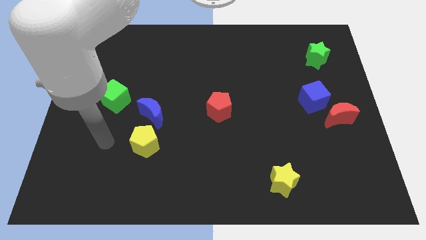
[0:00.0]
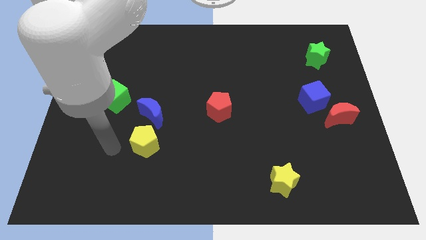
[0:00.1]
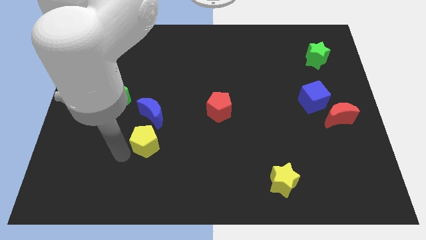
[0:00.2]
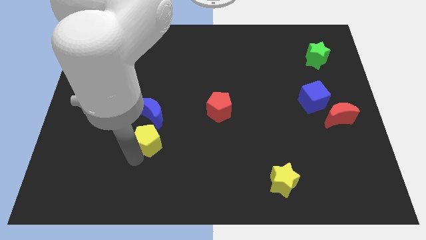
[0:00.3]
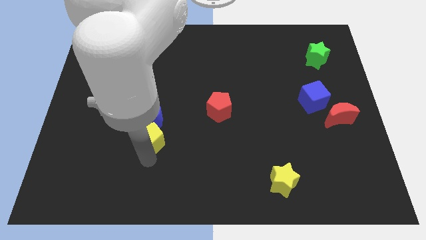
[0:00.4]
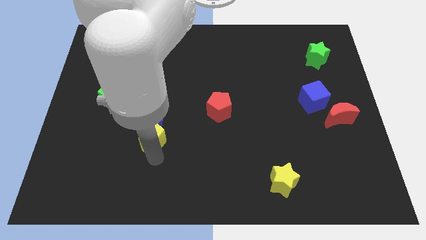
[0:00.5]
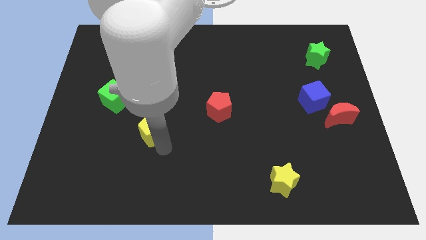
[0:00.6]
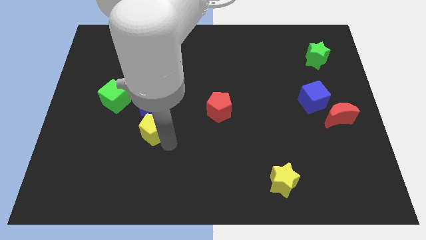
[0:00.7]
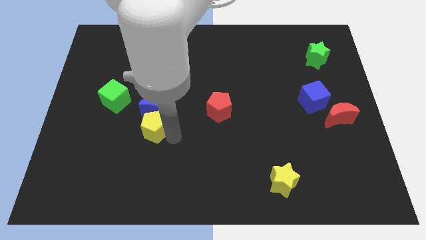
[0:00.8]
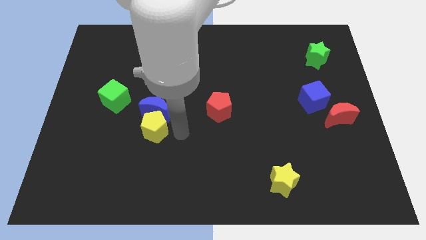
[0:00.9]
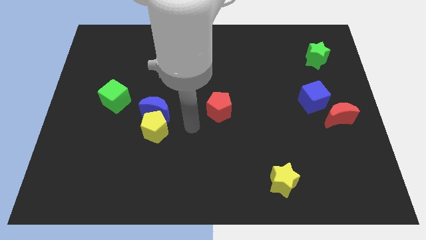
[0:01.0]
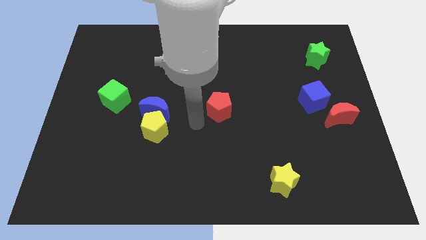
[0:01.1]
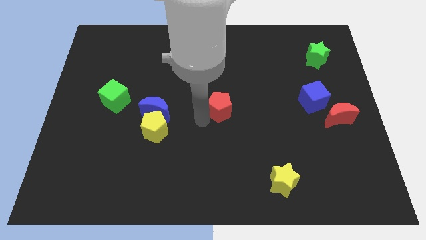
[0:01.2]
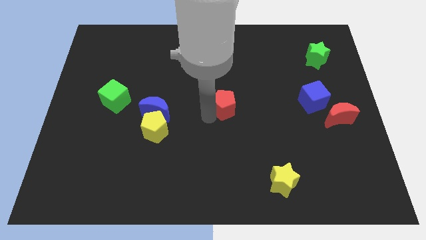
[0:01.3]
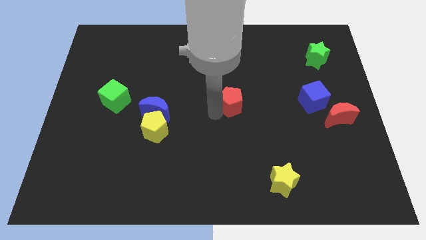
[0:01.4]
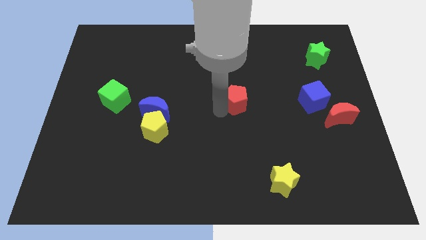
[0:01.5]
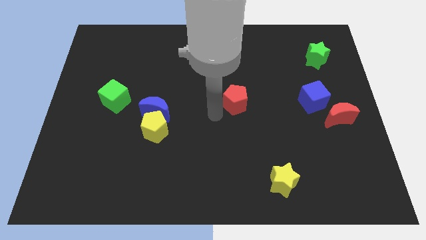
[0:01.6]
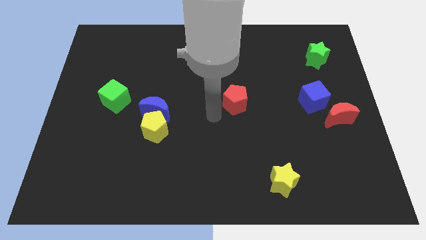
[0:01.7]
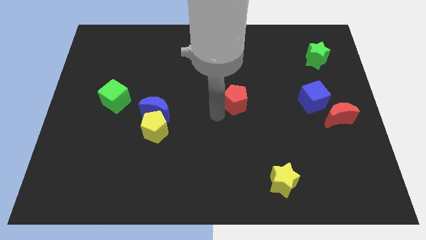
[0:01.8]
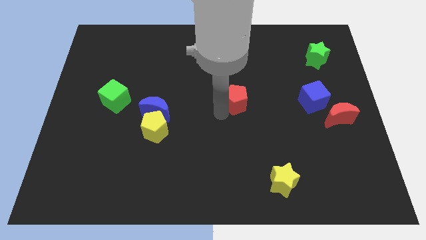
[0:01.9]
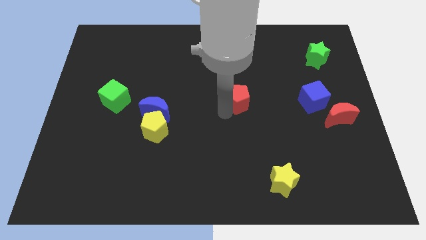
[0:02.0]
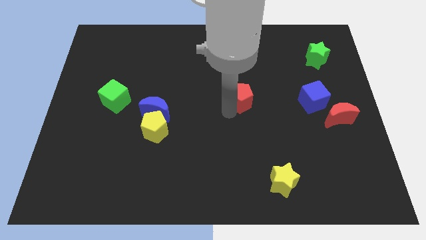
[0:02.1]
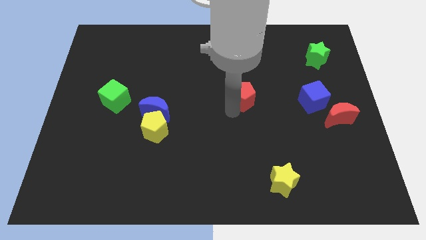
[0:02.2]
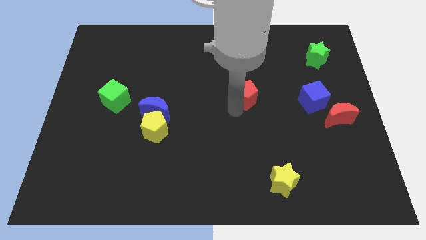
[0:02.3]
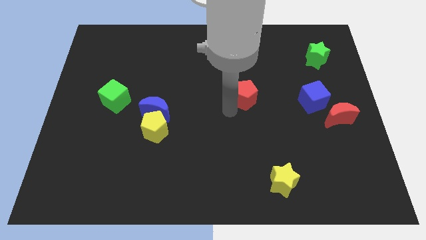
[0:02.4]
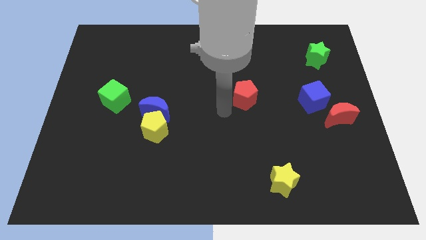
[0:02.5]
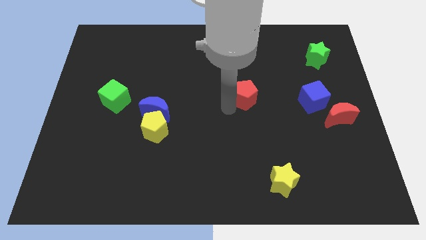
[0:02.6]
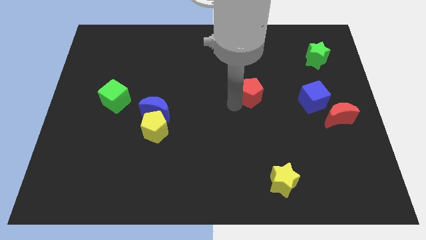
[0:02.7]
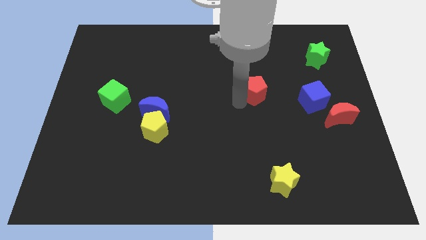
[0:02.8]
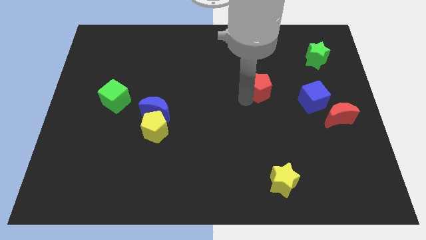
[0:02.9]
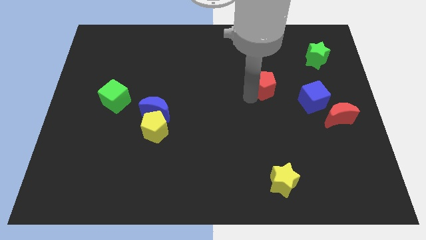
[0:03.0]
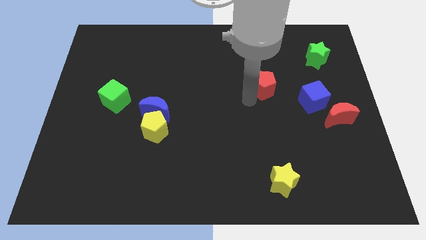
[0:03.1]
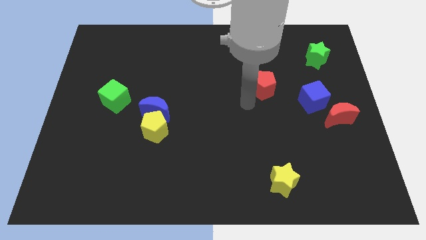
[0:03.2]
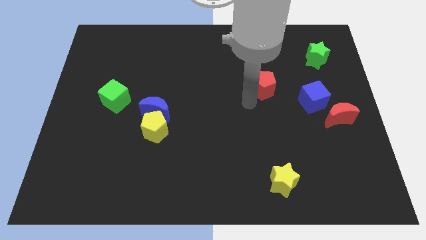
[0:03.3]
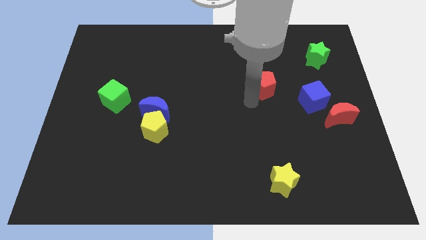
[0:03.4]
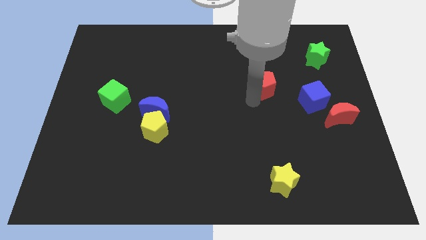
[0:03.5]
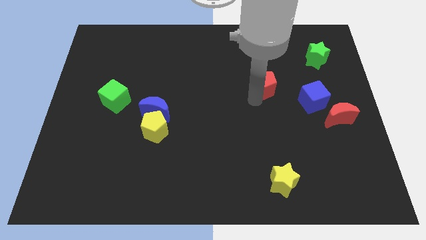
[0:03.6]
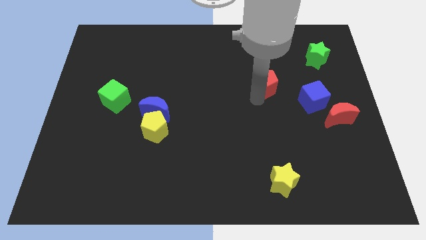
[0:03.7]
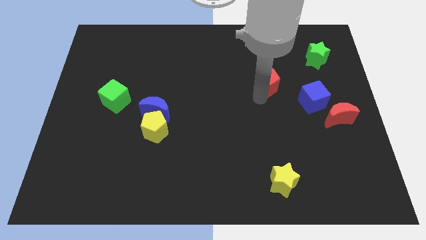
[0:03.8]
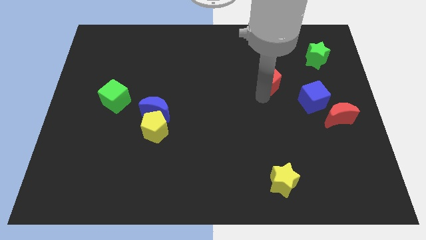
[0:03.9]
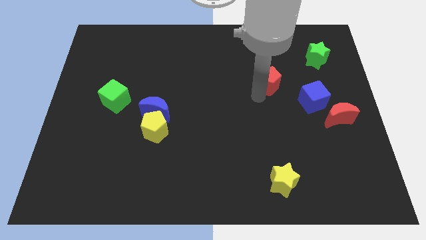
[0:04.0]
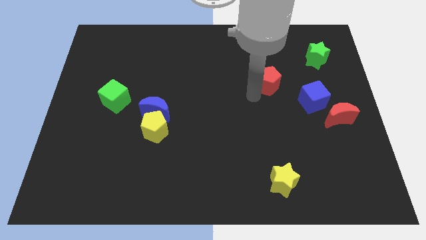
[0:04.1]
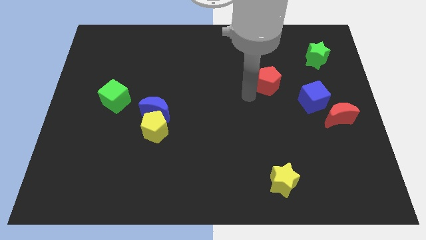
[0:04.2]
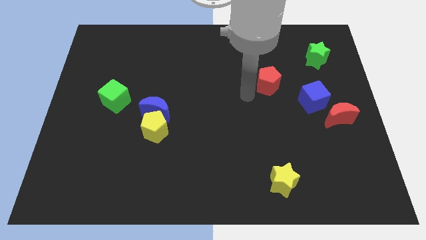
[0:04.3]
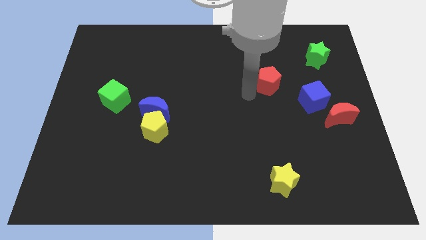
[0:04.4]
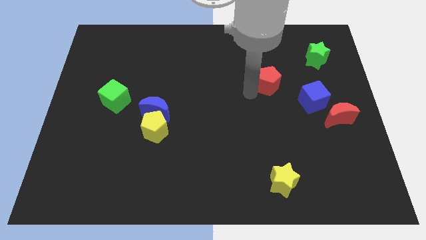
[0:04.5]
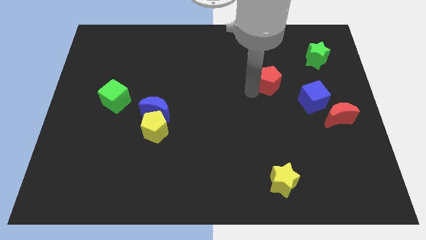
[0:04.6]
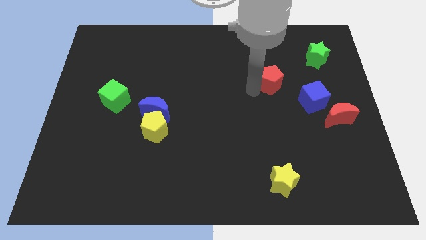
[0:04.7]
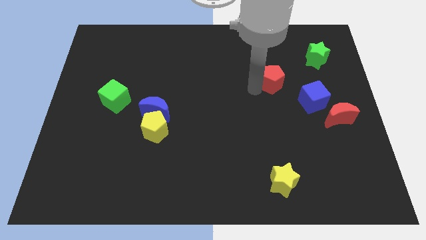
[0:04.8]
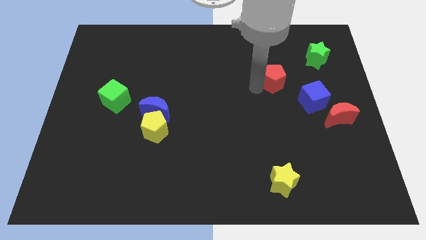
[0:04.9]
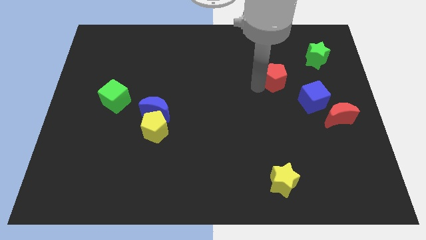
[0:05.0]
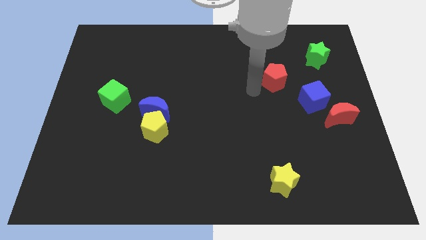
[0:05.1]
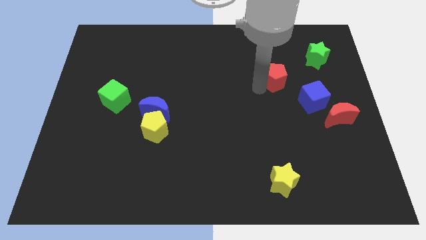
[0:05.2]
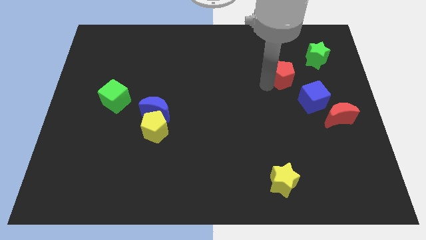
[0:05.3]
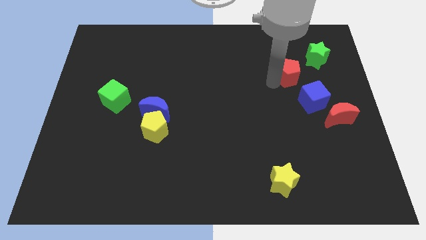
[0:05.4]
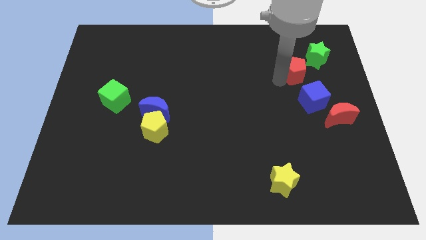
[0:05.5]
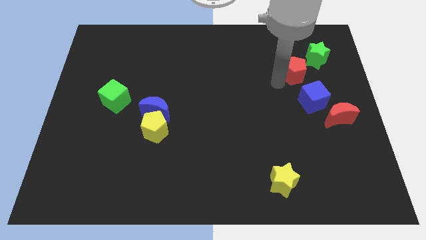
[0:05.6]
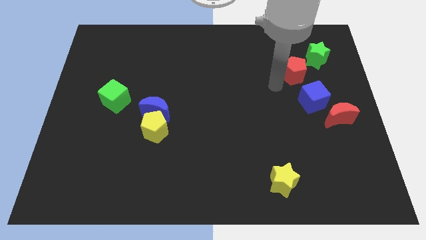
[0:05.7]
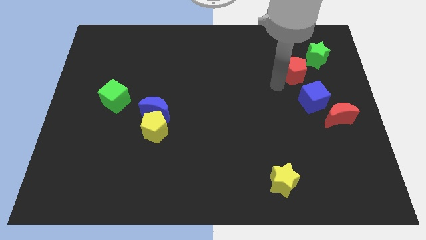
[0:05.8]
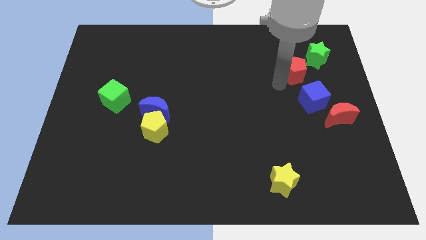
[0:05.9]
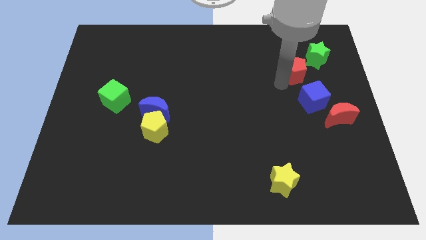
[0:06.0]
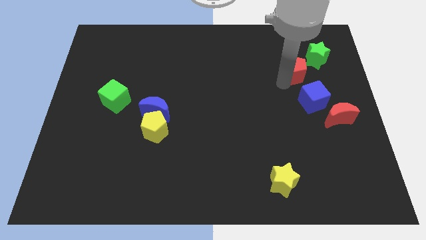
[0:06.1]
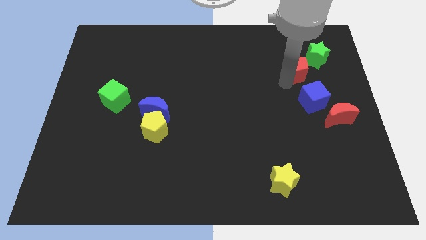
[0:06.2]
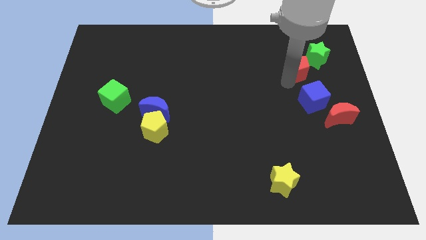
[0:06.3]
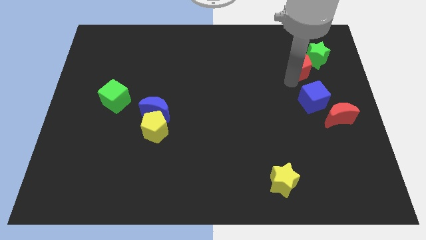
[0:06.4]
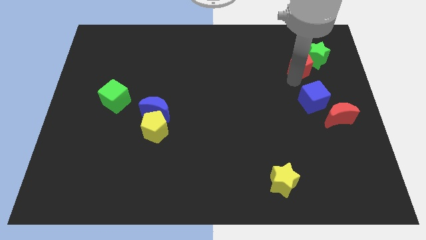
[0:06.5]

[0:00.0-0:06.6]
push the red pentagon towards the green star

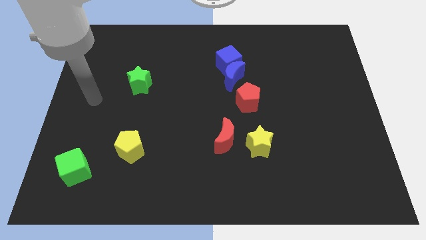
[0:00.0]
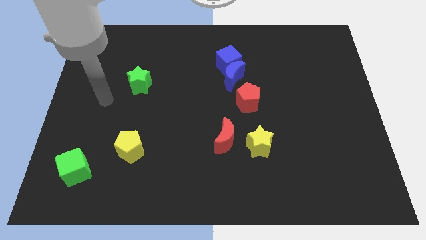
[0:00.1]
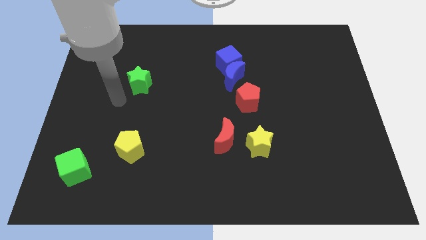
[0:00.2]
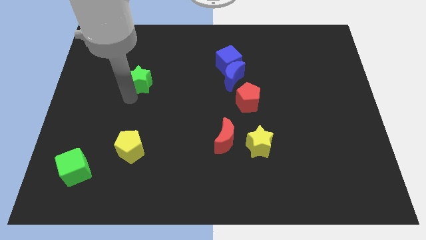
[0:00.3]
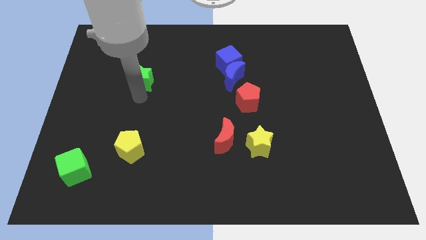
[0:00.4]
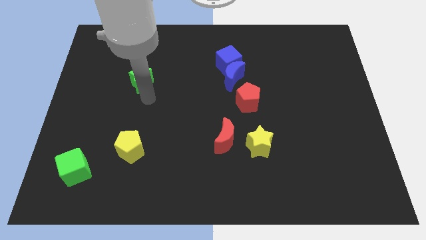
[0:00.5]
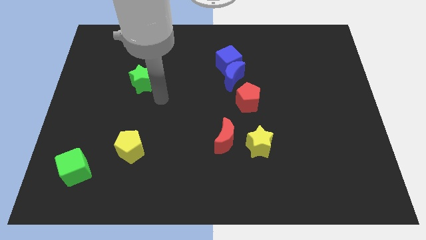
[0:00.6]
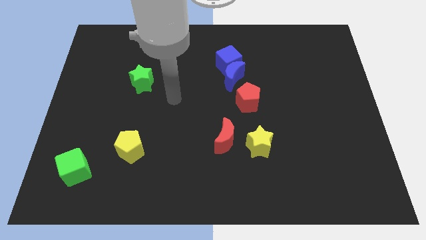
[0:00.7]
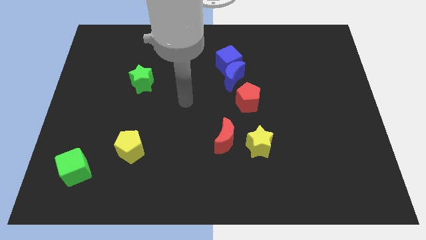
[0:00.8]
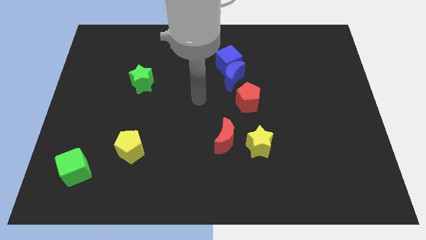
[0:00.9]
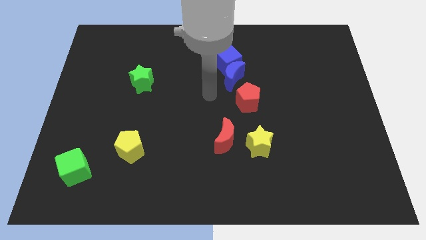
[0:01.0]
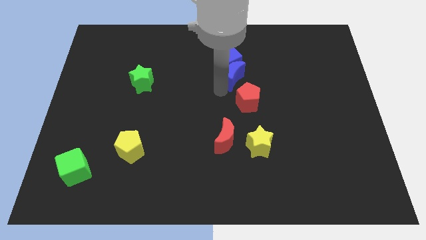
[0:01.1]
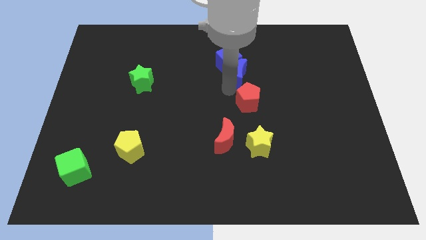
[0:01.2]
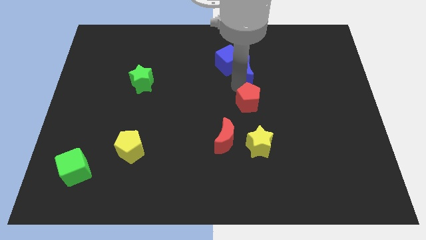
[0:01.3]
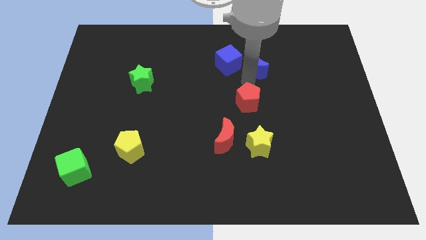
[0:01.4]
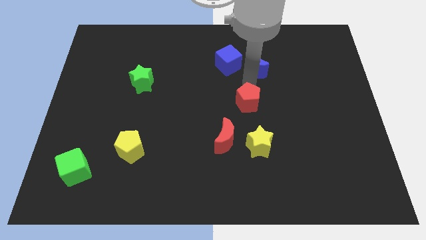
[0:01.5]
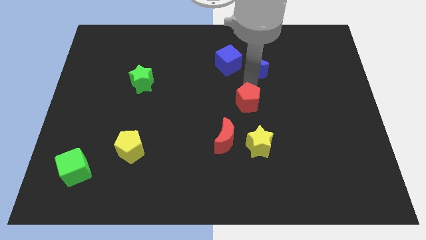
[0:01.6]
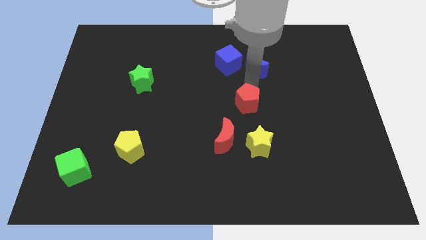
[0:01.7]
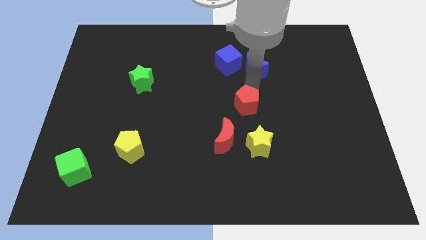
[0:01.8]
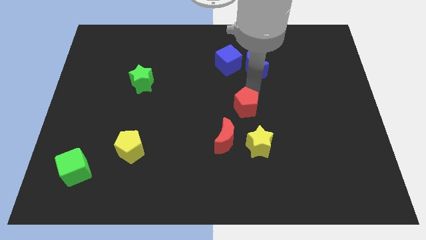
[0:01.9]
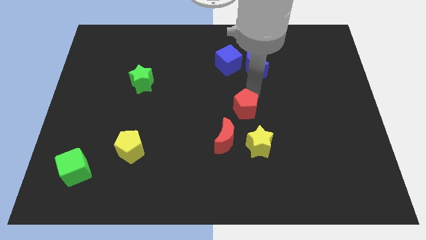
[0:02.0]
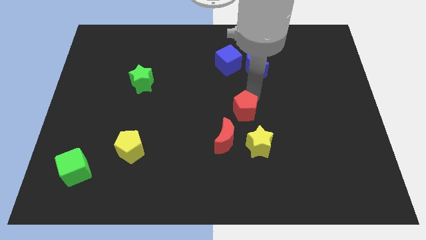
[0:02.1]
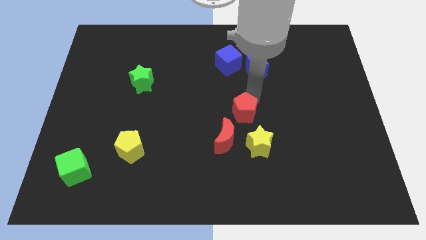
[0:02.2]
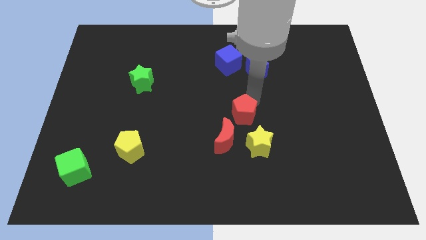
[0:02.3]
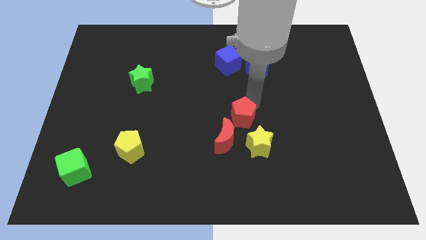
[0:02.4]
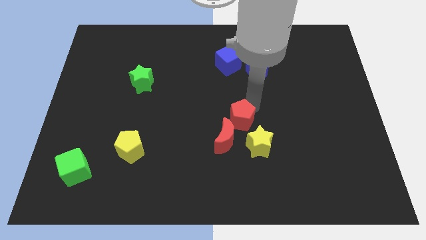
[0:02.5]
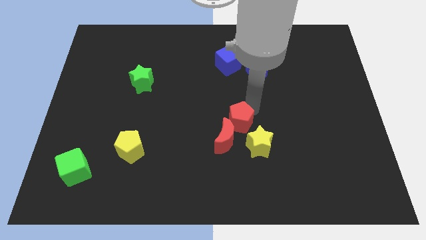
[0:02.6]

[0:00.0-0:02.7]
move the red pentagon to the red moon
